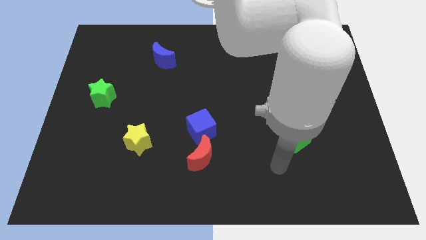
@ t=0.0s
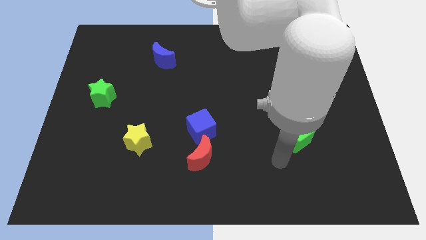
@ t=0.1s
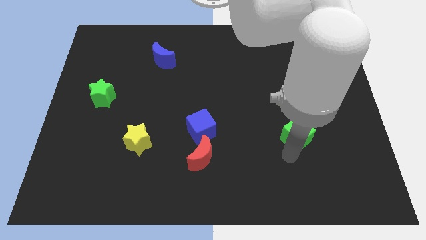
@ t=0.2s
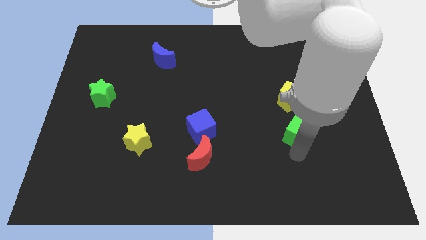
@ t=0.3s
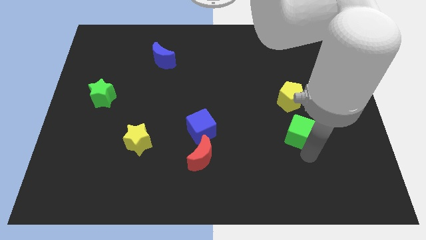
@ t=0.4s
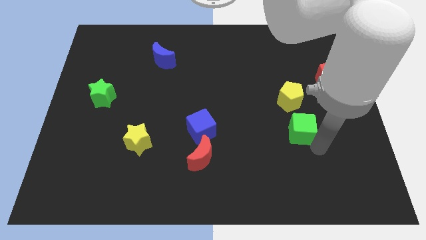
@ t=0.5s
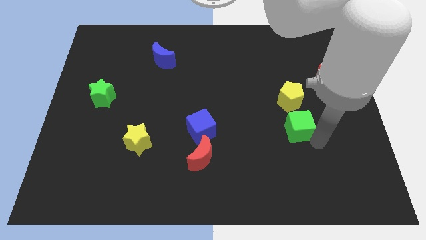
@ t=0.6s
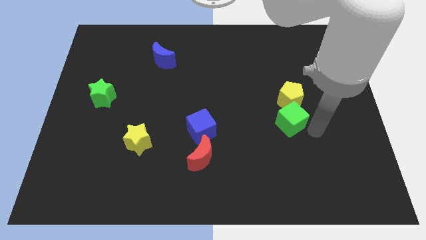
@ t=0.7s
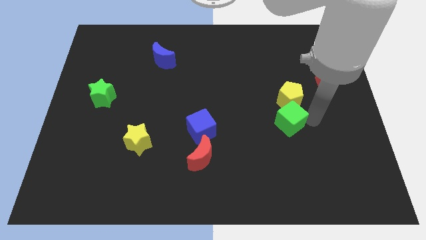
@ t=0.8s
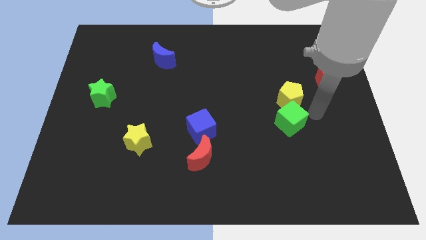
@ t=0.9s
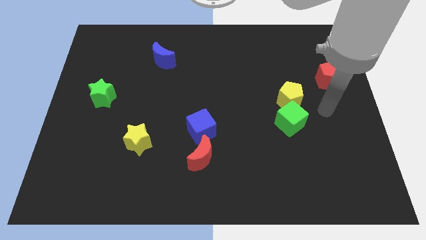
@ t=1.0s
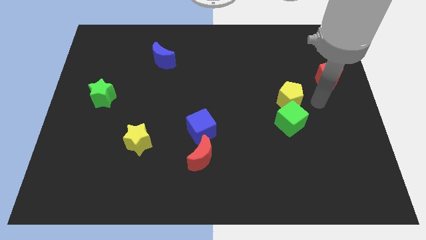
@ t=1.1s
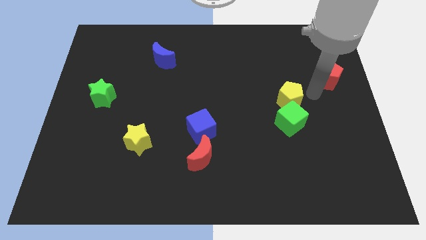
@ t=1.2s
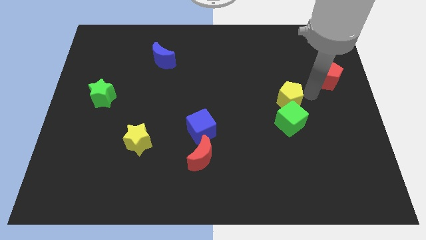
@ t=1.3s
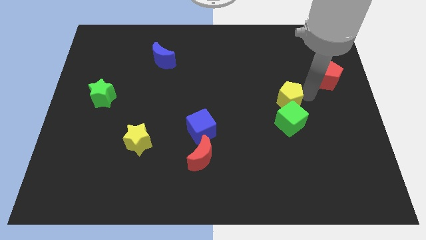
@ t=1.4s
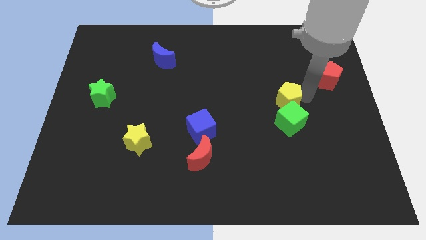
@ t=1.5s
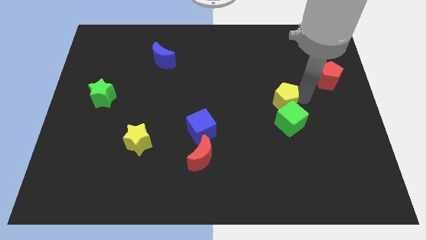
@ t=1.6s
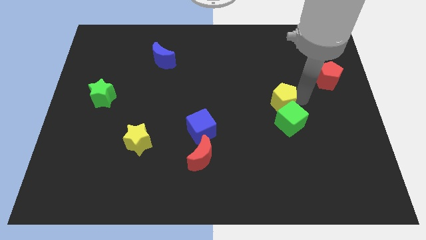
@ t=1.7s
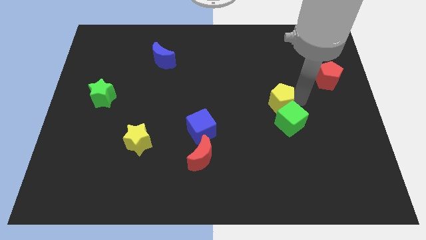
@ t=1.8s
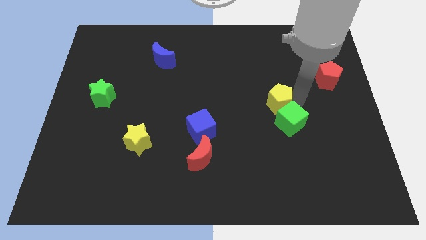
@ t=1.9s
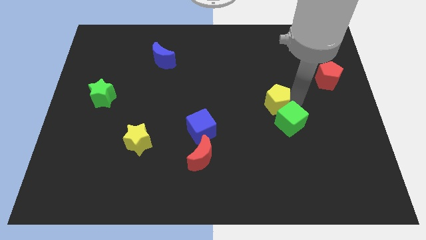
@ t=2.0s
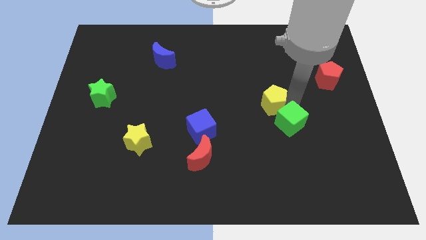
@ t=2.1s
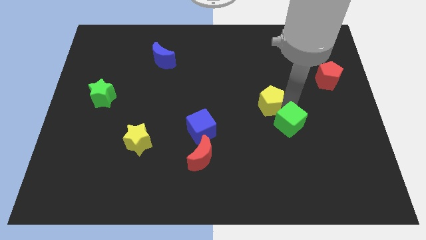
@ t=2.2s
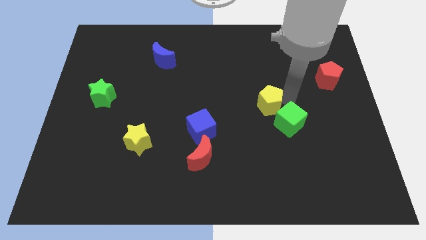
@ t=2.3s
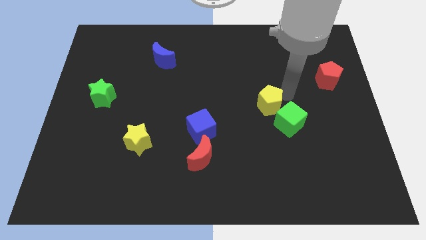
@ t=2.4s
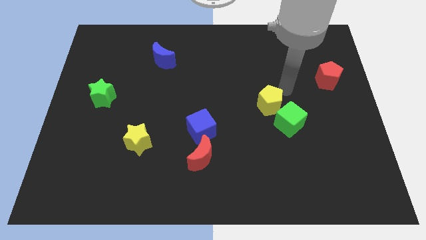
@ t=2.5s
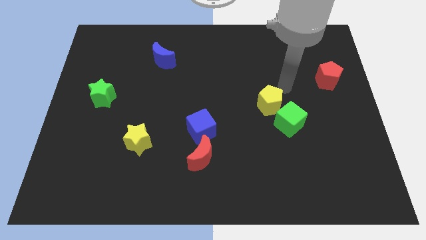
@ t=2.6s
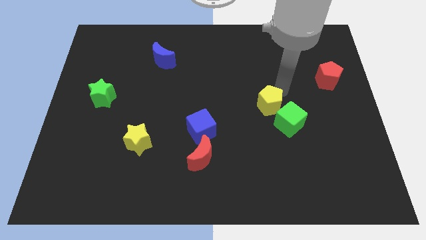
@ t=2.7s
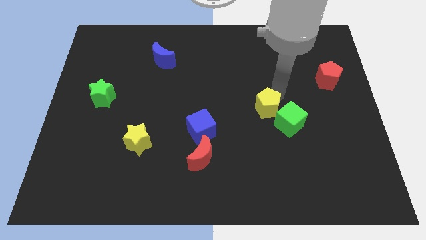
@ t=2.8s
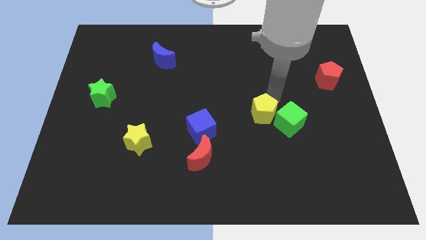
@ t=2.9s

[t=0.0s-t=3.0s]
move the yellow pentagon downwards and then left a bit

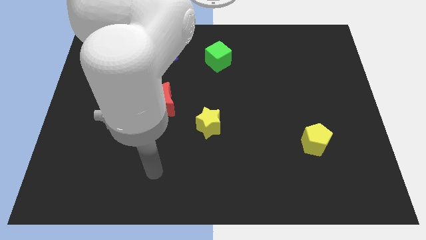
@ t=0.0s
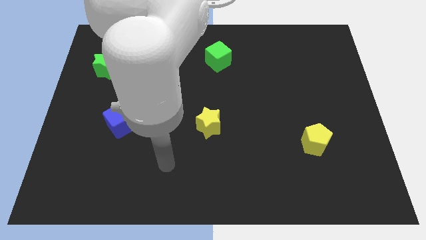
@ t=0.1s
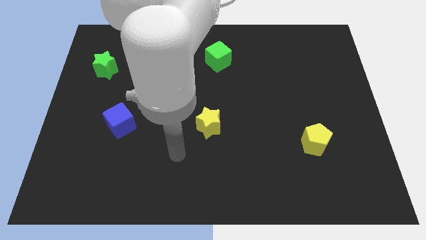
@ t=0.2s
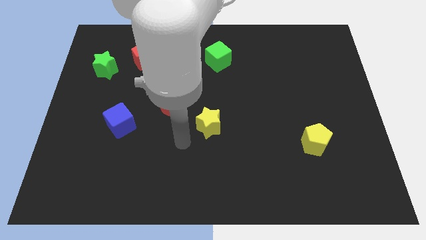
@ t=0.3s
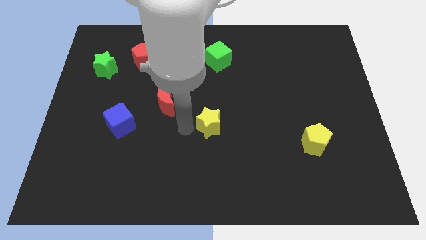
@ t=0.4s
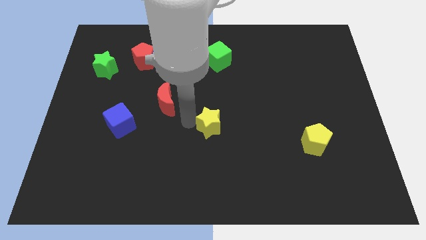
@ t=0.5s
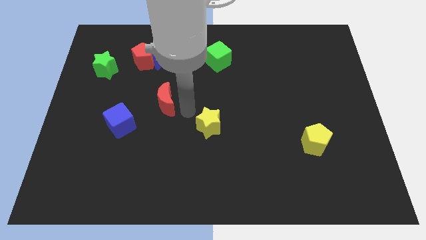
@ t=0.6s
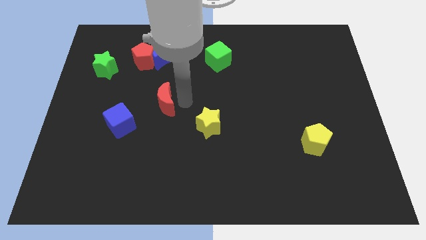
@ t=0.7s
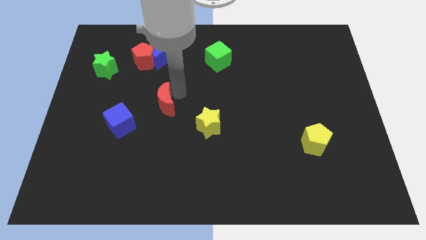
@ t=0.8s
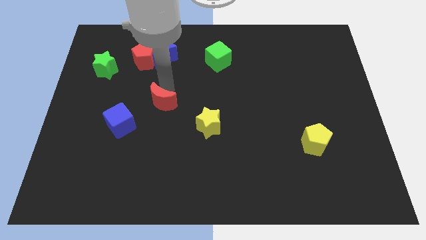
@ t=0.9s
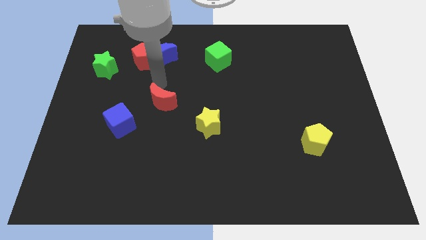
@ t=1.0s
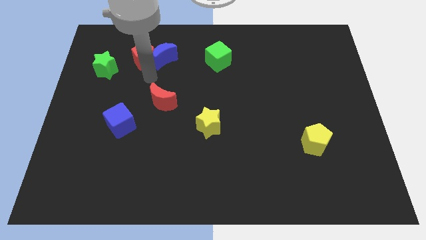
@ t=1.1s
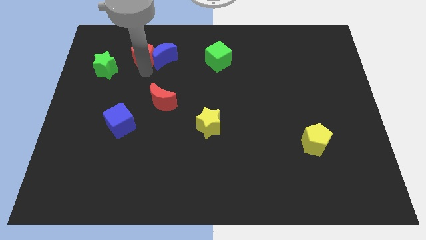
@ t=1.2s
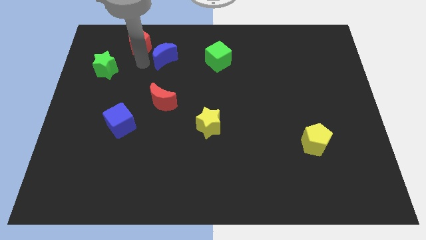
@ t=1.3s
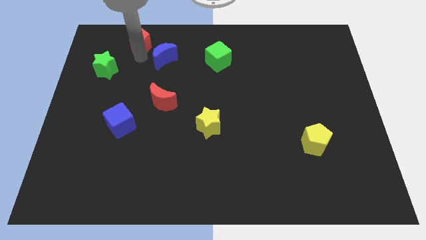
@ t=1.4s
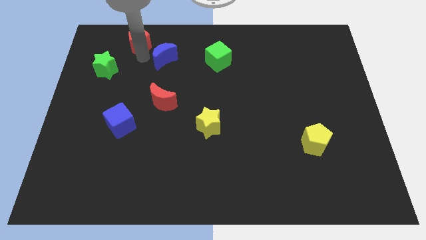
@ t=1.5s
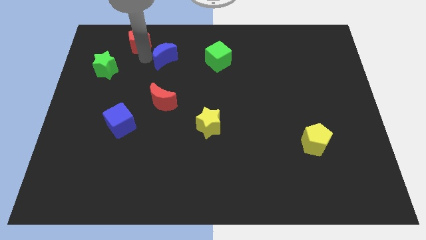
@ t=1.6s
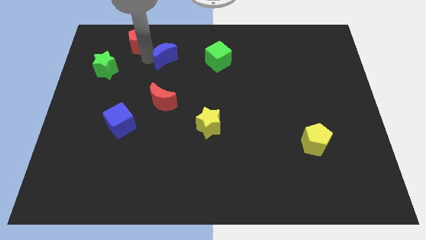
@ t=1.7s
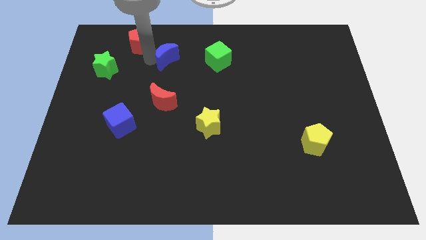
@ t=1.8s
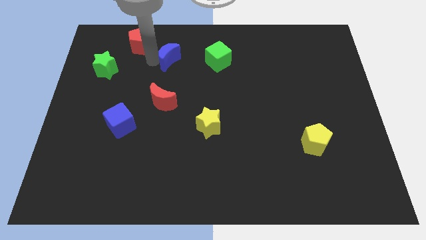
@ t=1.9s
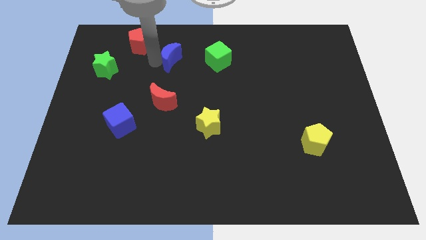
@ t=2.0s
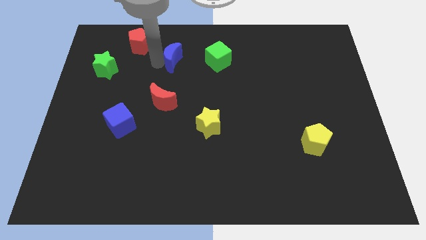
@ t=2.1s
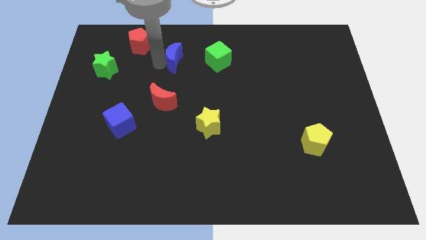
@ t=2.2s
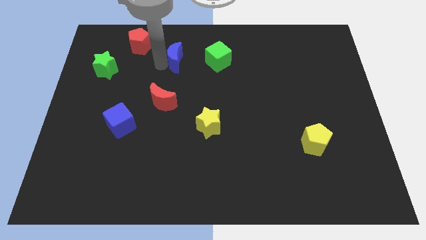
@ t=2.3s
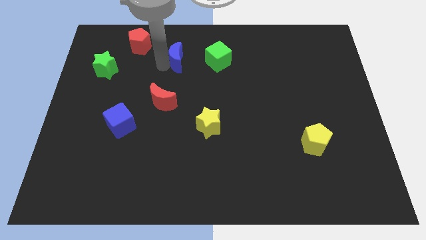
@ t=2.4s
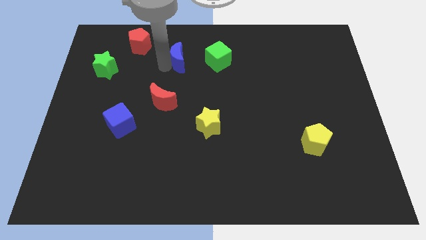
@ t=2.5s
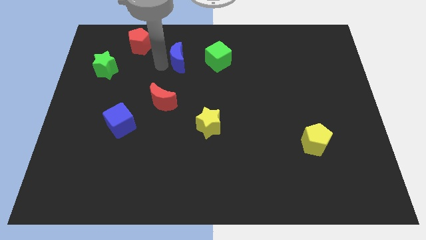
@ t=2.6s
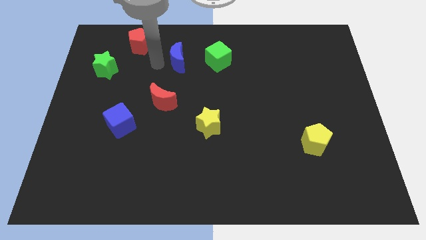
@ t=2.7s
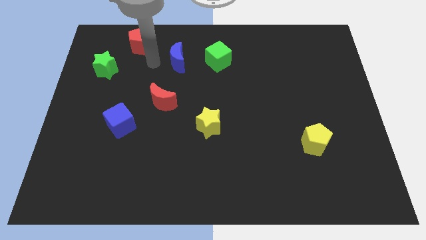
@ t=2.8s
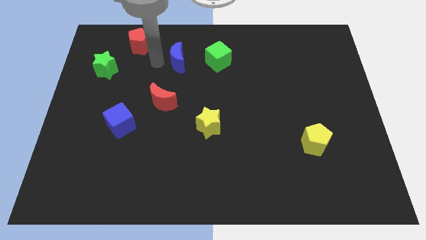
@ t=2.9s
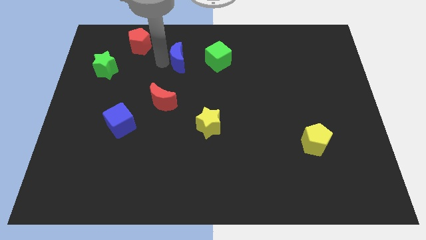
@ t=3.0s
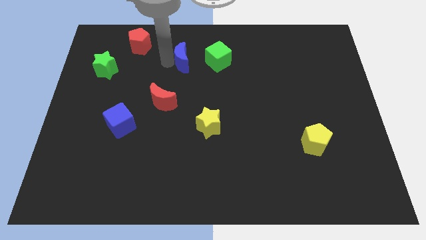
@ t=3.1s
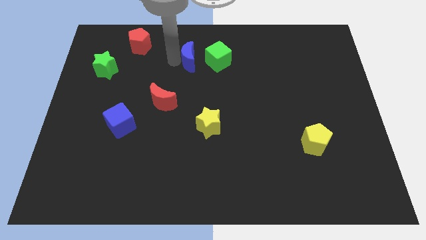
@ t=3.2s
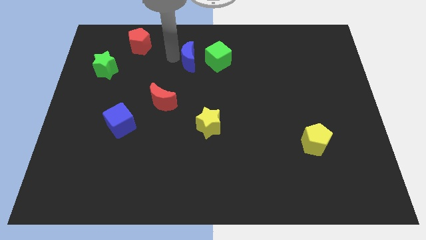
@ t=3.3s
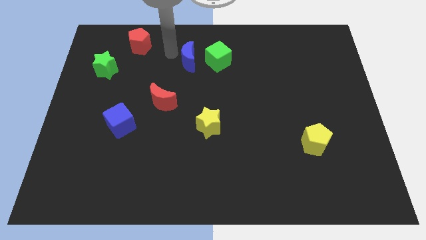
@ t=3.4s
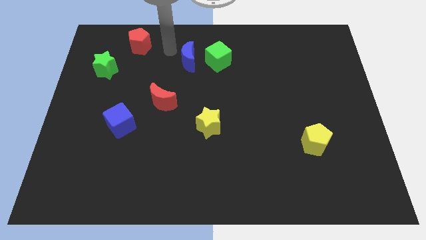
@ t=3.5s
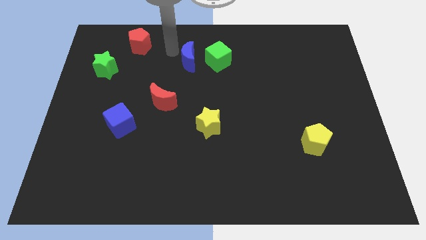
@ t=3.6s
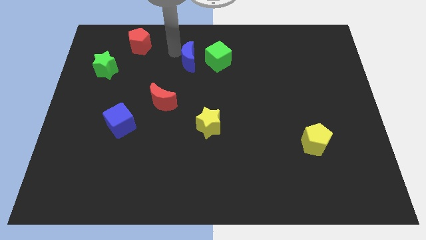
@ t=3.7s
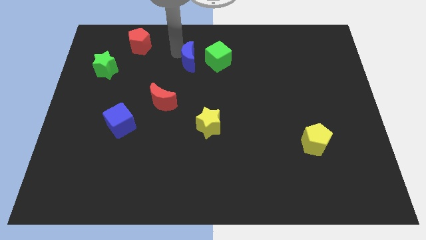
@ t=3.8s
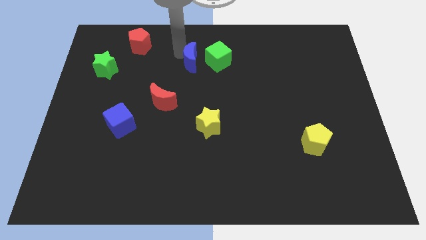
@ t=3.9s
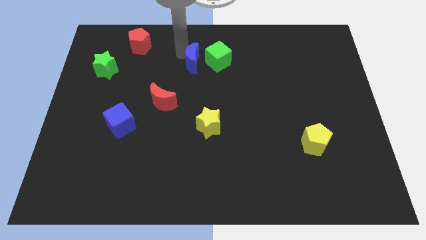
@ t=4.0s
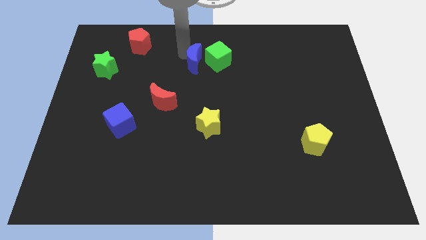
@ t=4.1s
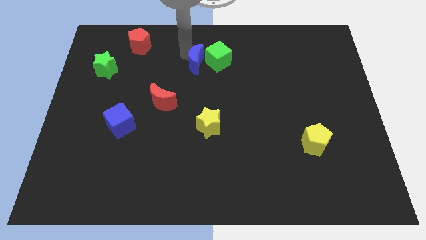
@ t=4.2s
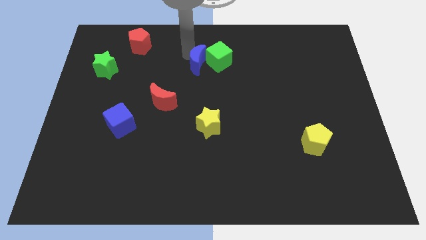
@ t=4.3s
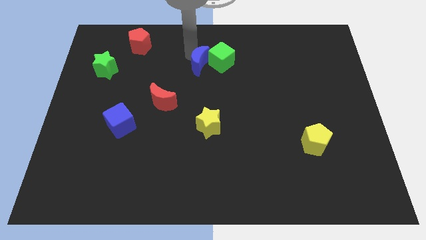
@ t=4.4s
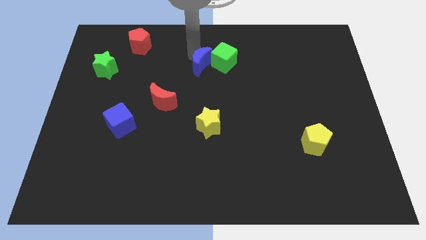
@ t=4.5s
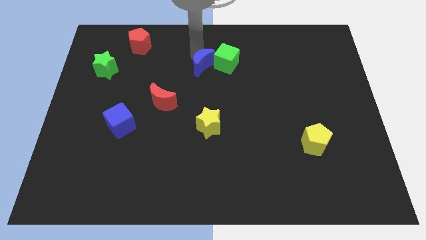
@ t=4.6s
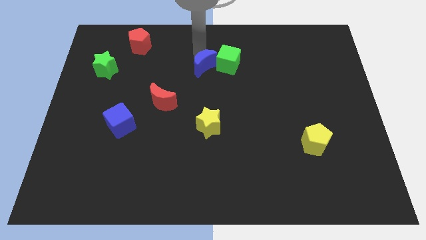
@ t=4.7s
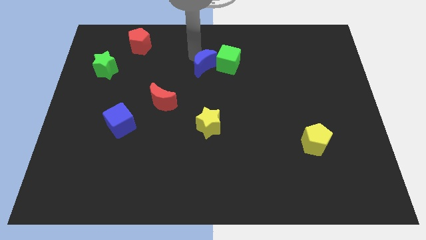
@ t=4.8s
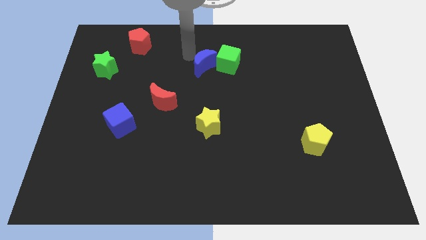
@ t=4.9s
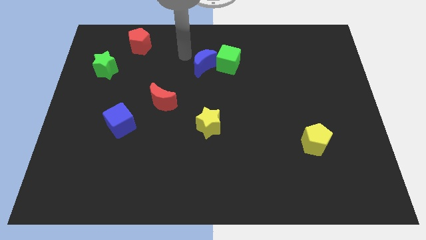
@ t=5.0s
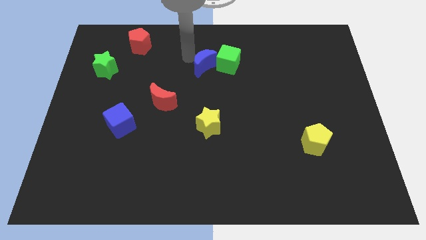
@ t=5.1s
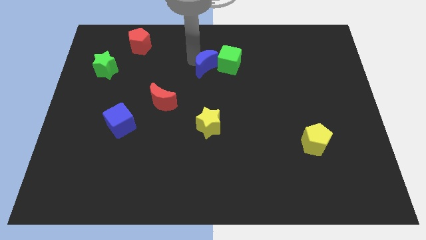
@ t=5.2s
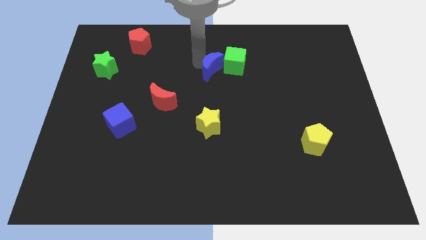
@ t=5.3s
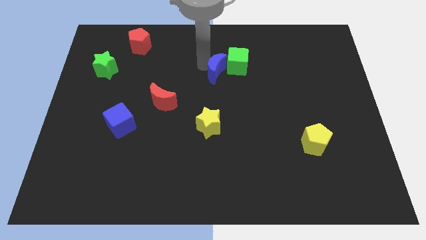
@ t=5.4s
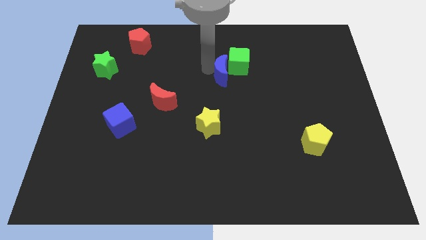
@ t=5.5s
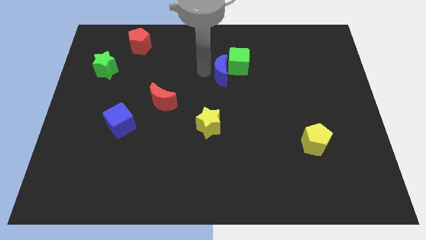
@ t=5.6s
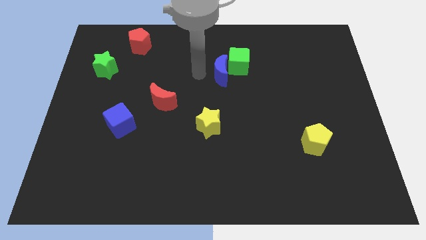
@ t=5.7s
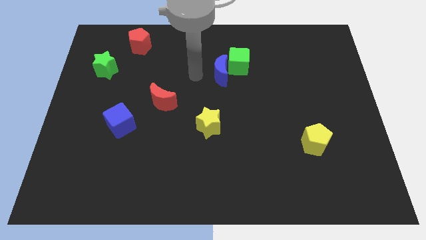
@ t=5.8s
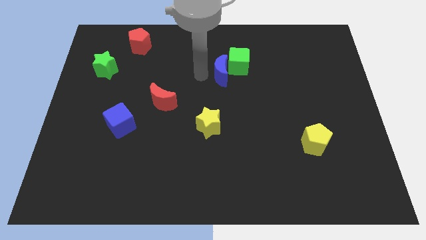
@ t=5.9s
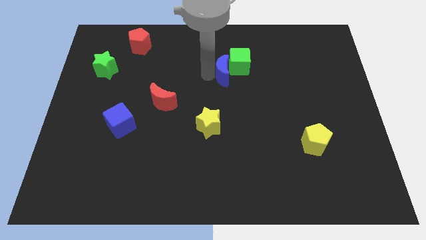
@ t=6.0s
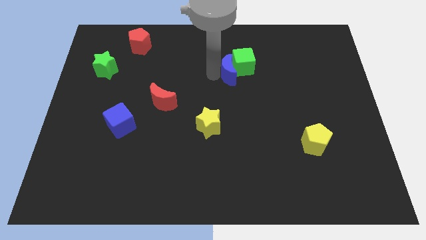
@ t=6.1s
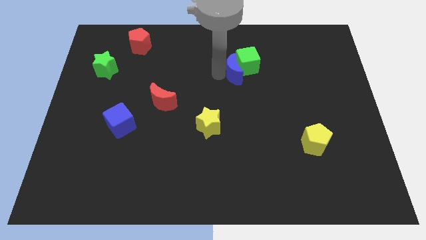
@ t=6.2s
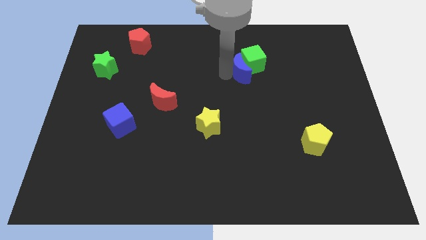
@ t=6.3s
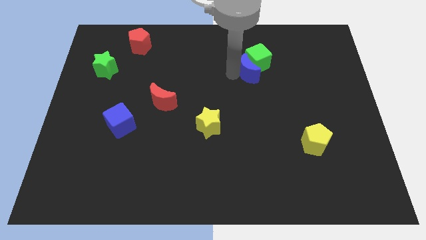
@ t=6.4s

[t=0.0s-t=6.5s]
push the blue moon to the right
